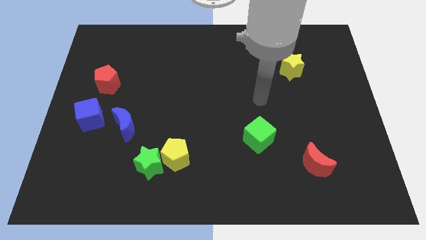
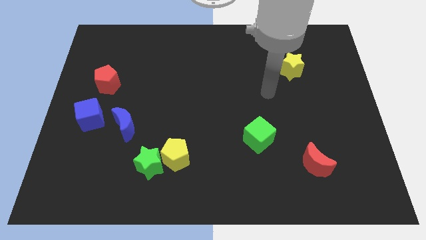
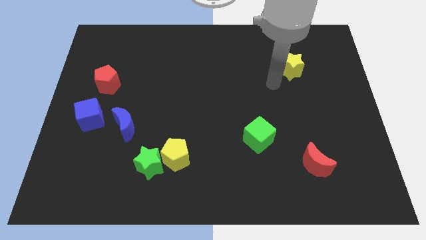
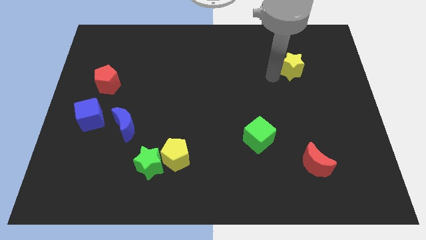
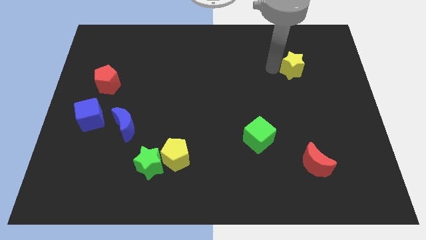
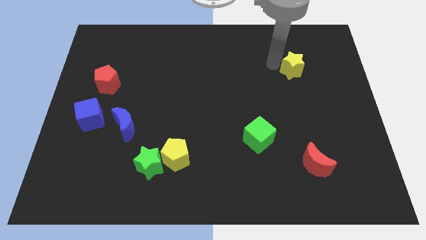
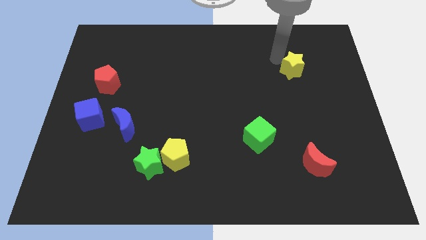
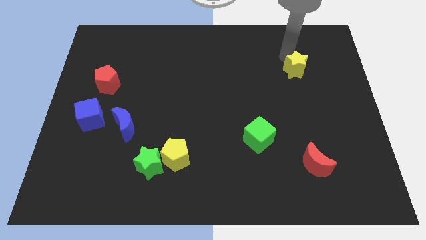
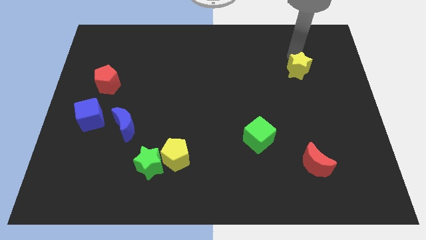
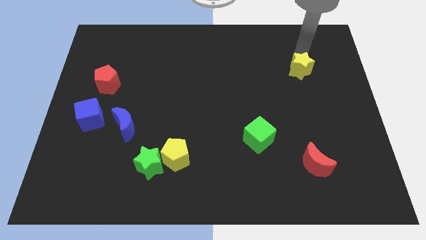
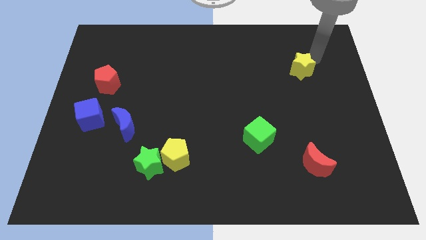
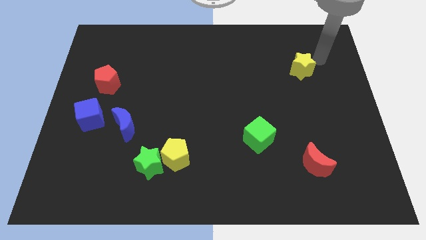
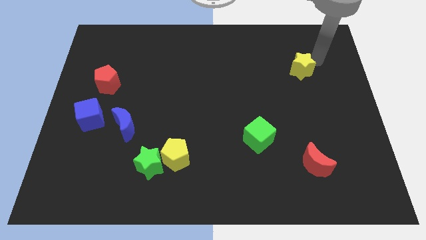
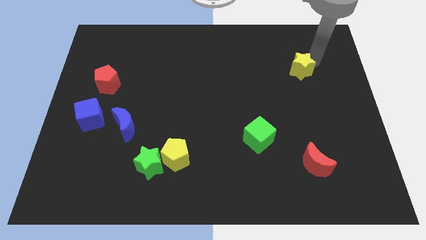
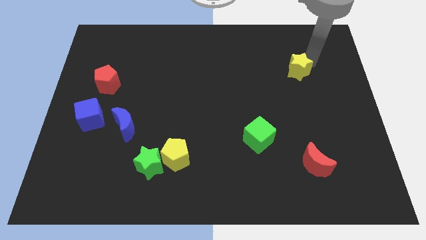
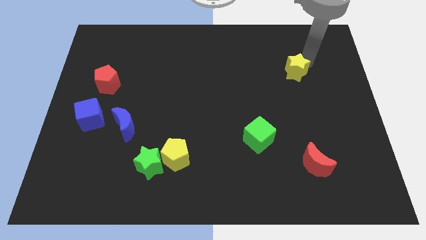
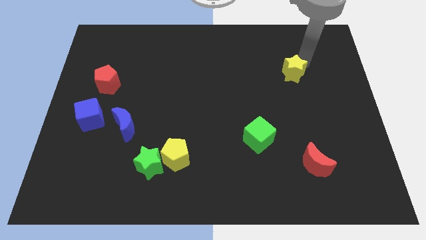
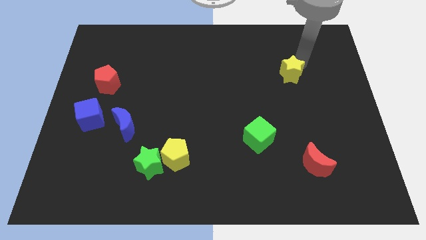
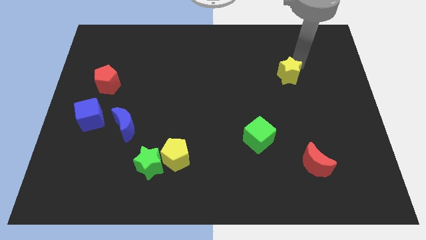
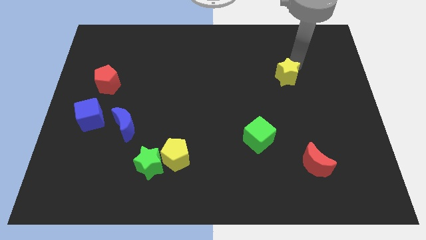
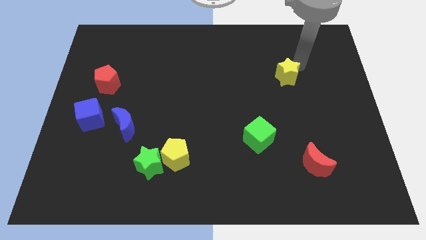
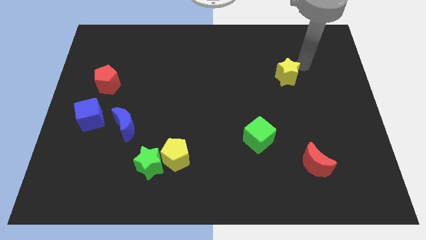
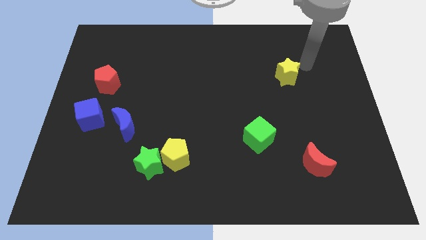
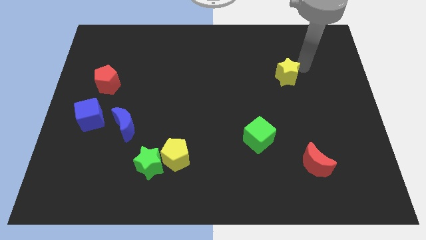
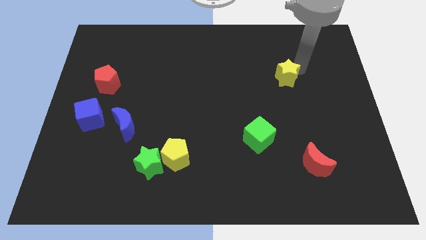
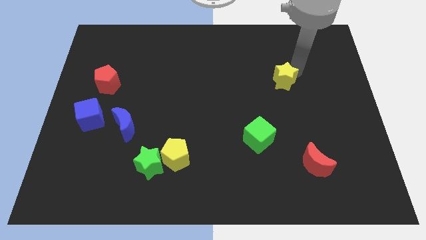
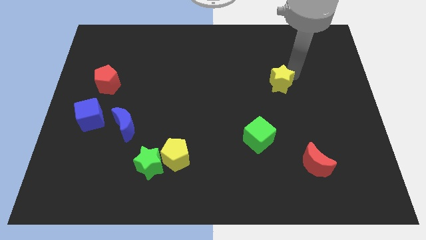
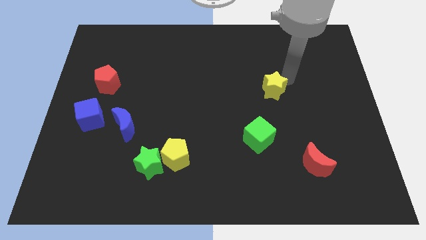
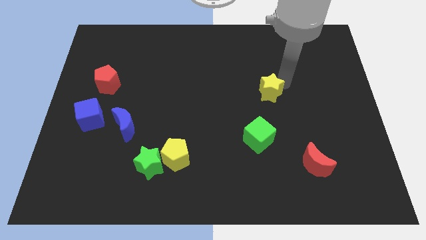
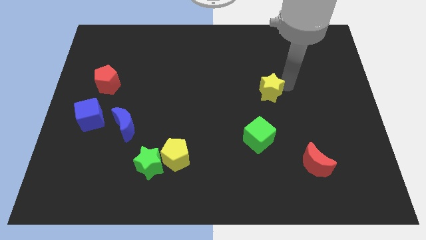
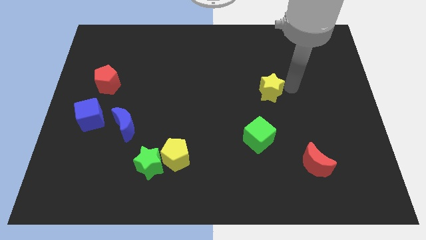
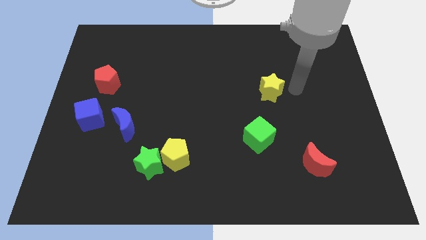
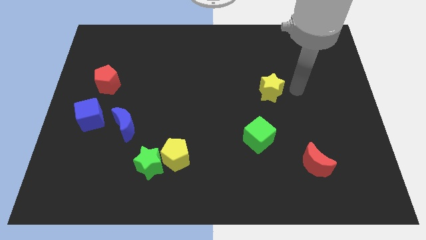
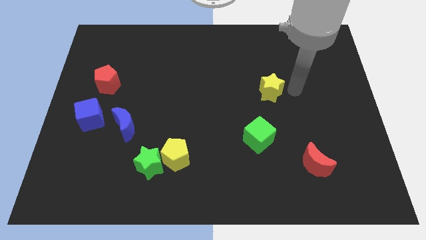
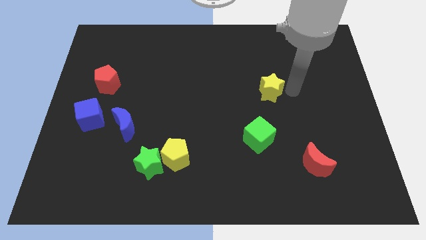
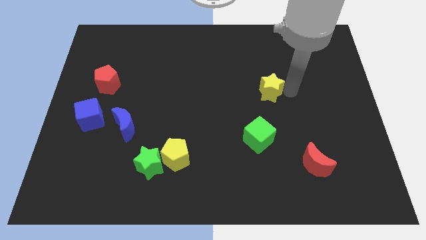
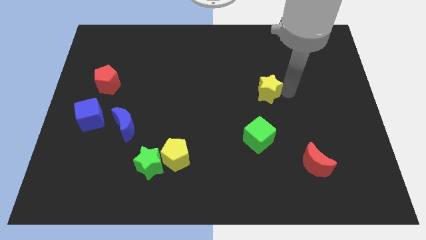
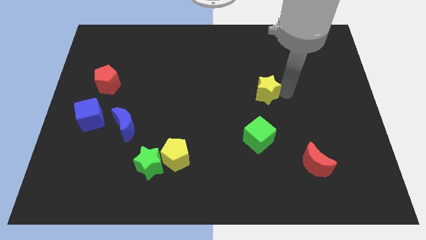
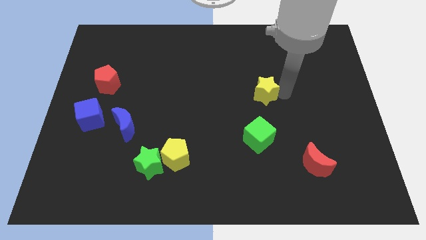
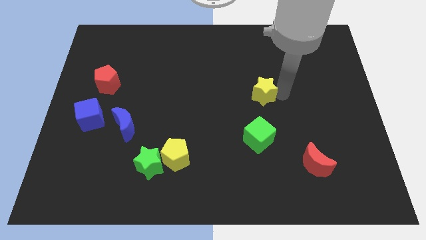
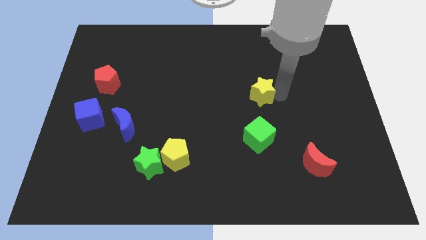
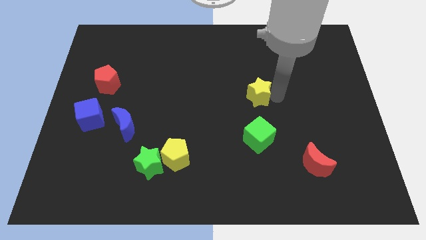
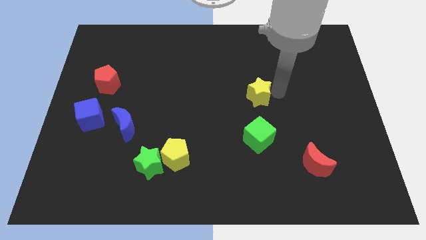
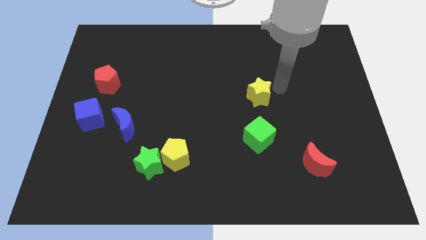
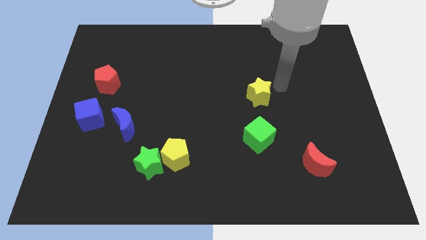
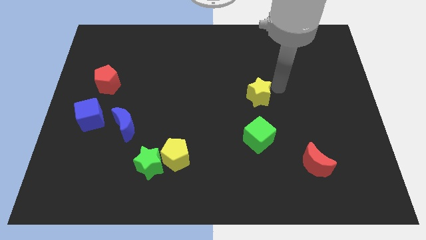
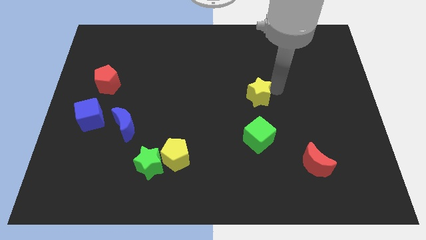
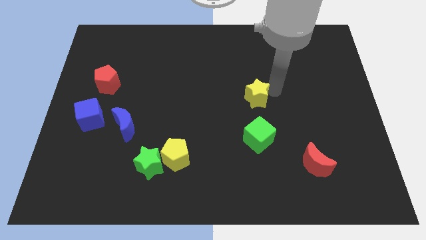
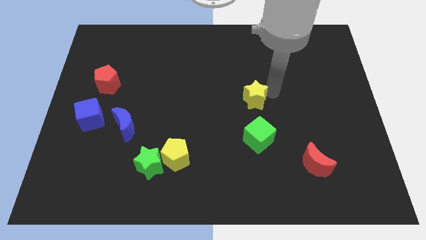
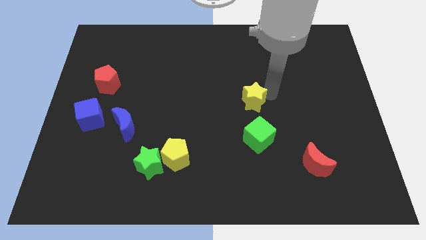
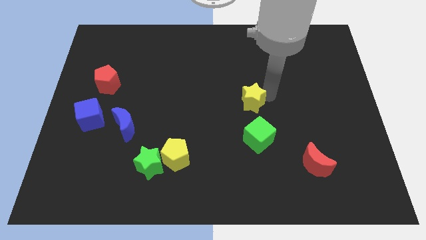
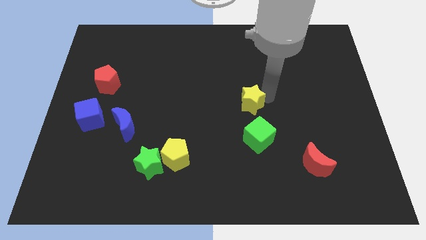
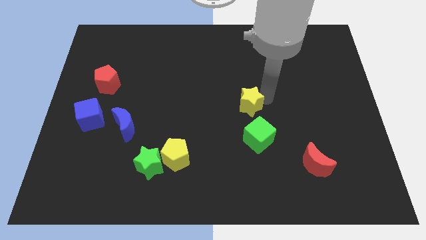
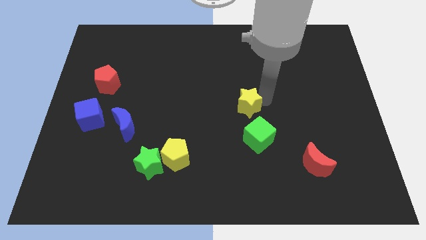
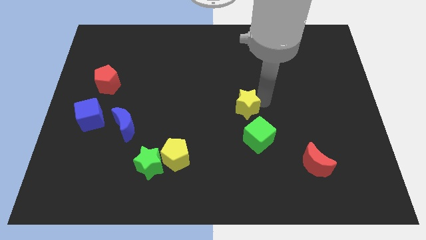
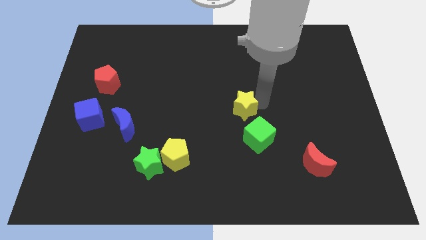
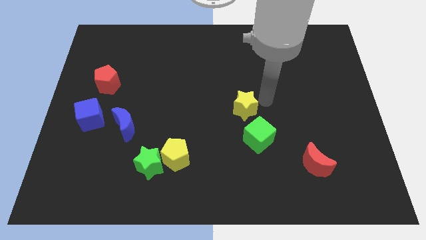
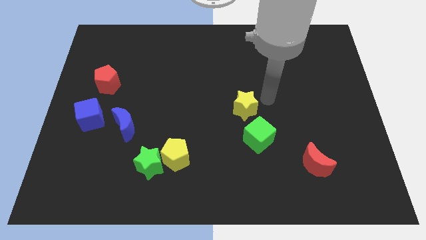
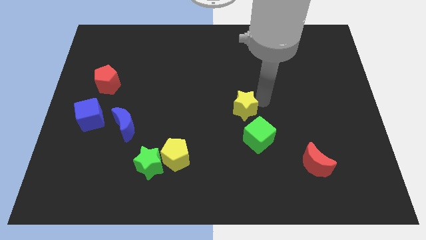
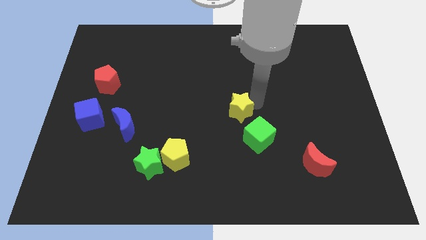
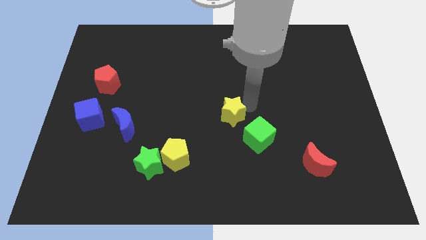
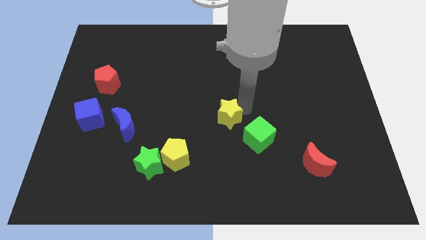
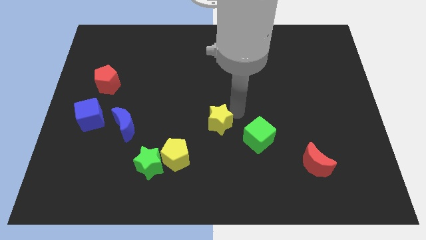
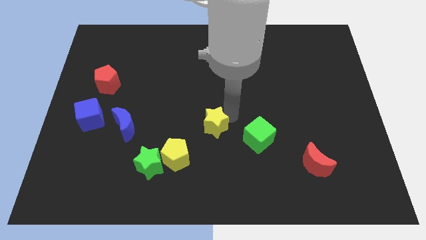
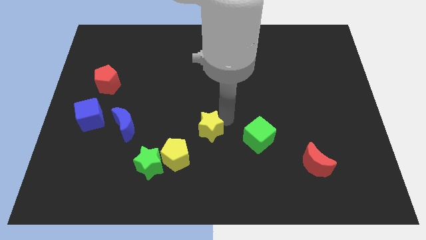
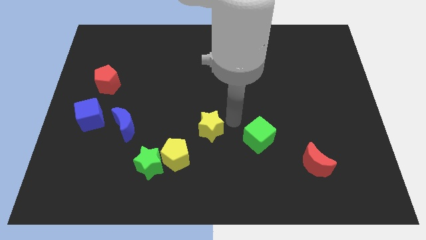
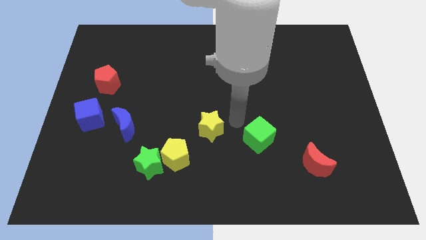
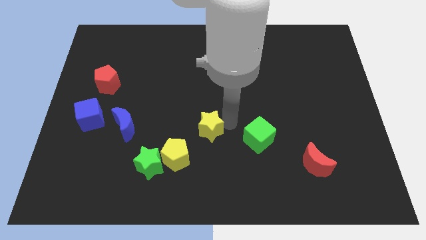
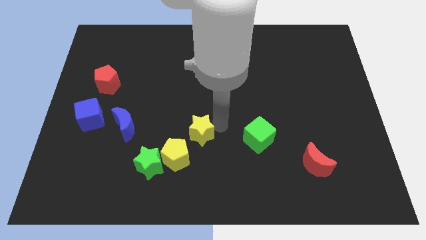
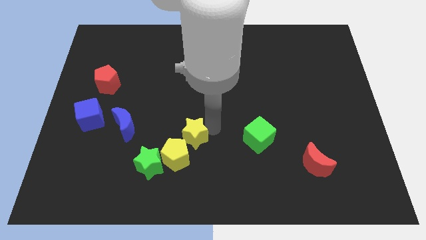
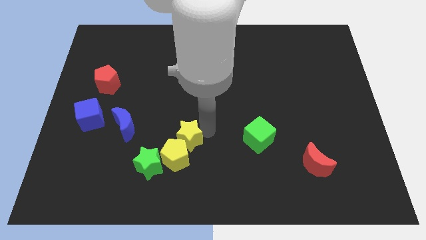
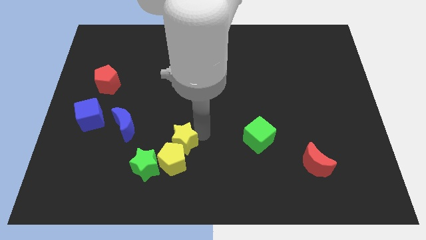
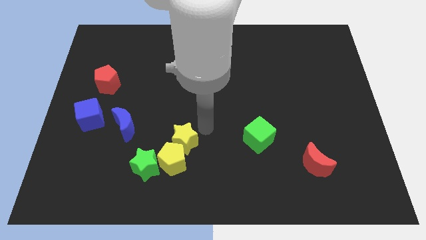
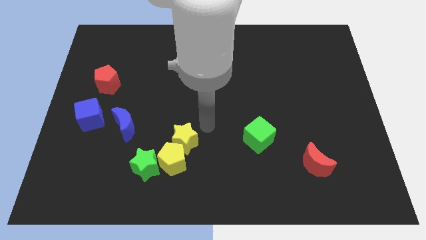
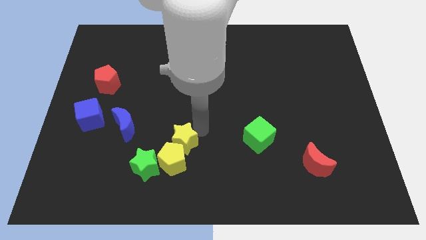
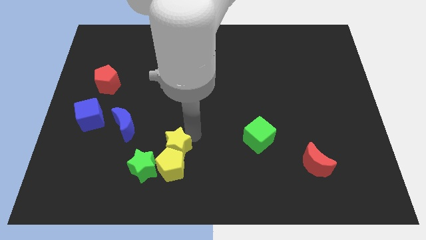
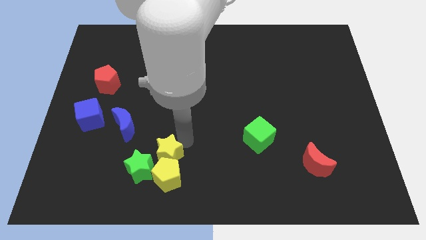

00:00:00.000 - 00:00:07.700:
put the yellow star to the green star
